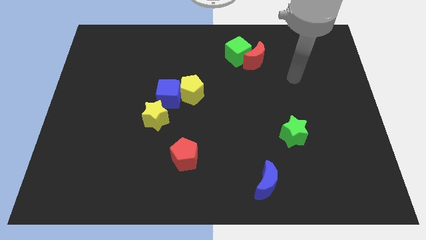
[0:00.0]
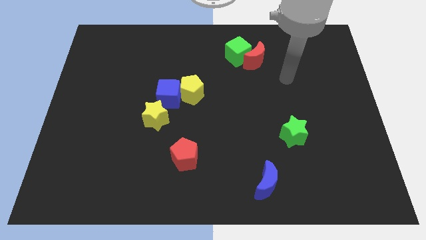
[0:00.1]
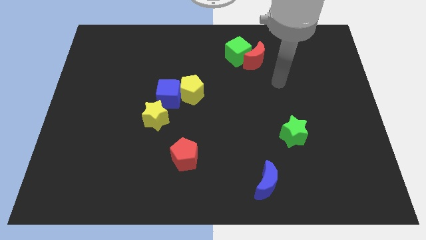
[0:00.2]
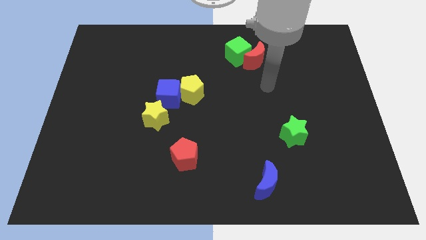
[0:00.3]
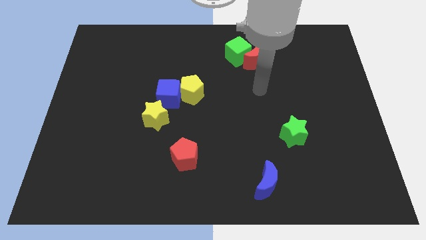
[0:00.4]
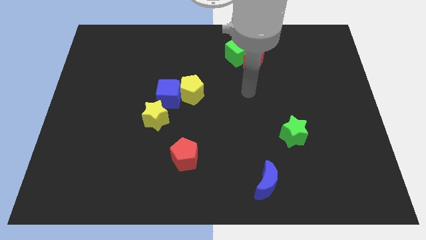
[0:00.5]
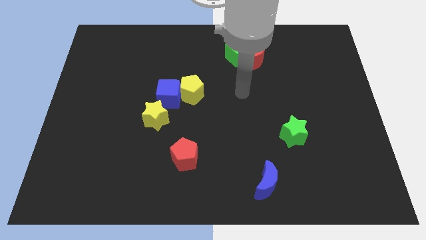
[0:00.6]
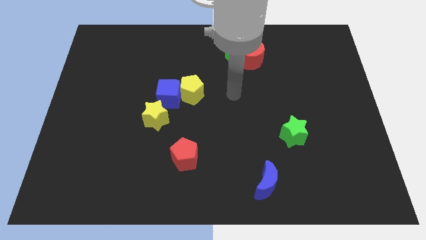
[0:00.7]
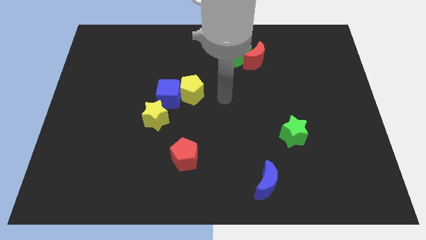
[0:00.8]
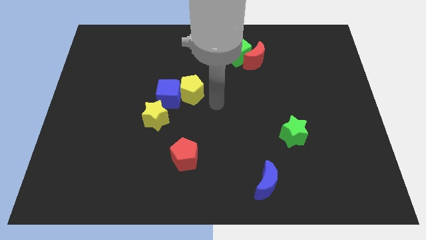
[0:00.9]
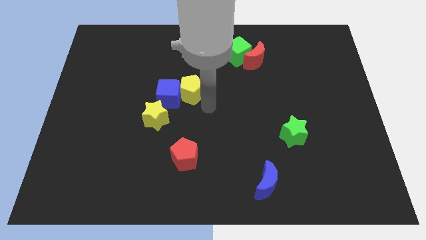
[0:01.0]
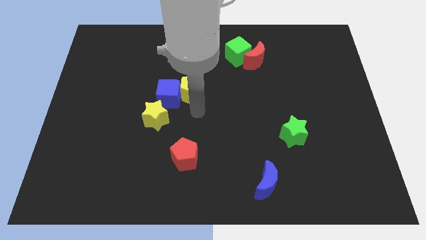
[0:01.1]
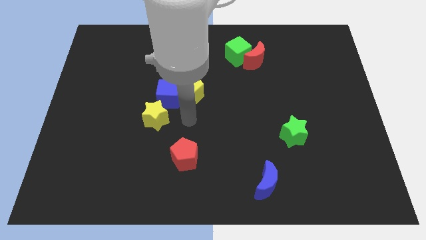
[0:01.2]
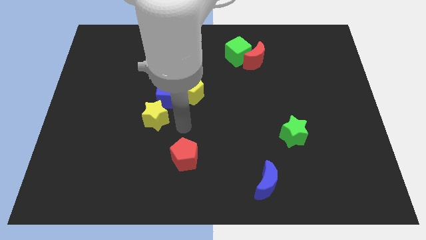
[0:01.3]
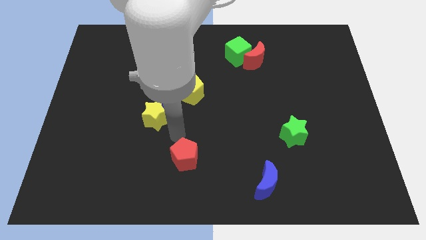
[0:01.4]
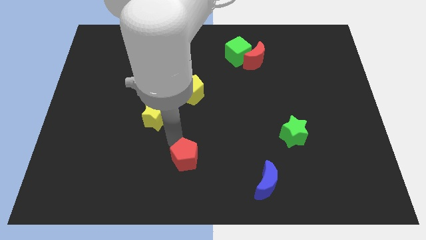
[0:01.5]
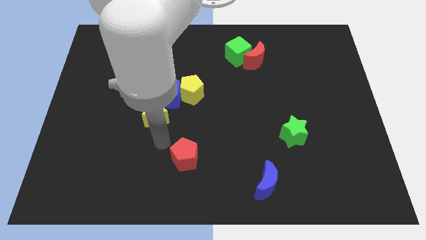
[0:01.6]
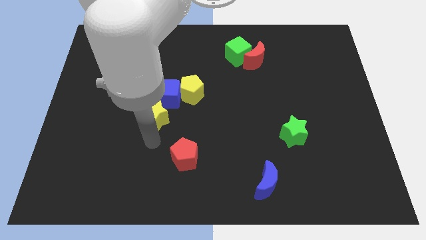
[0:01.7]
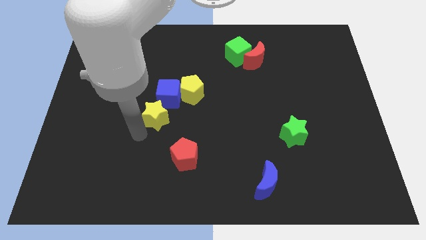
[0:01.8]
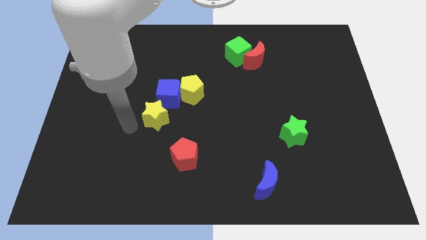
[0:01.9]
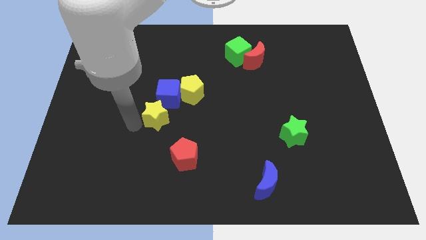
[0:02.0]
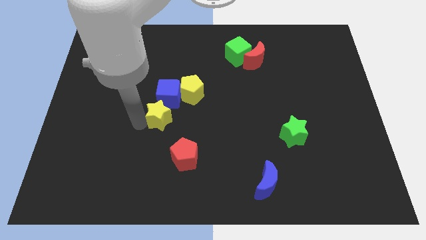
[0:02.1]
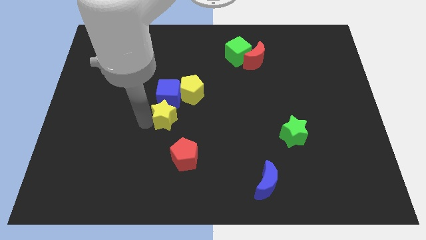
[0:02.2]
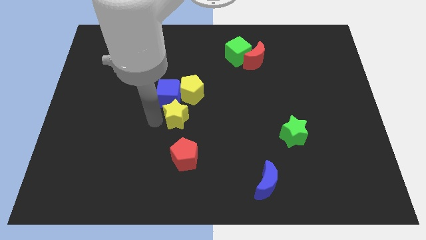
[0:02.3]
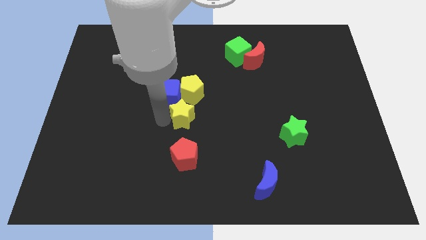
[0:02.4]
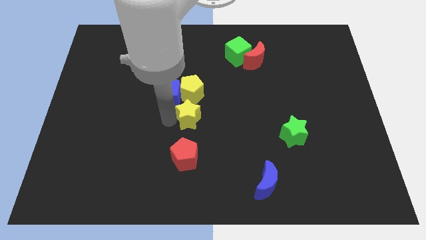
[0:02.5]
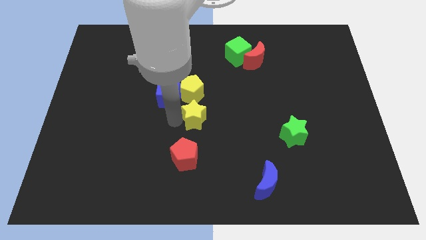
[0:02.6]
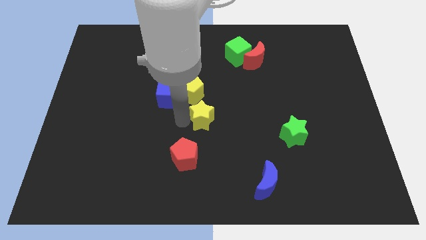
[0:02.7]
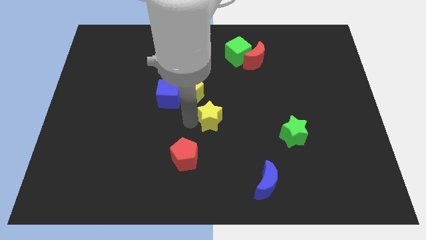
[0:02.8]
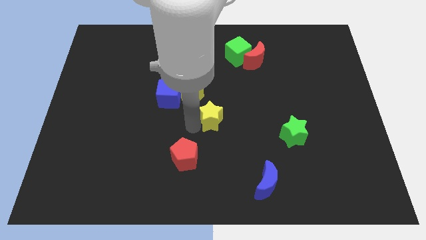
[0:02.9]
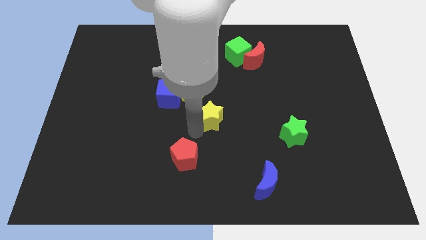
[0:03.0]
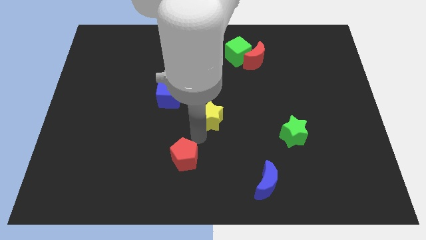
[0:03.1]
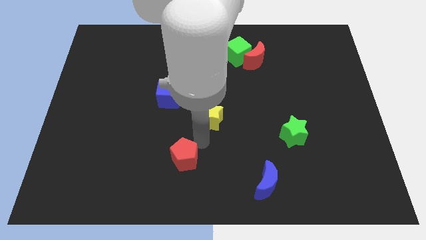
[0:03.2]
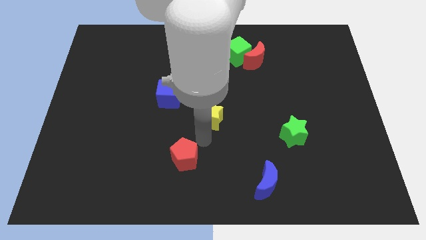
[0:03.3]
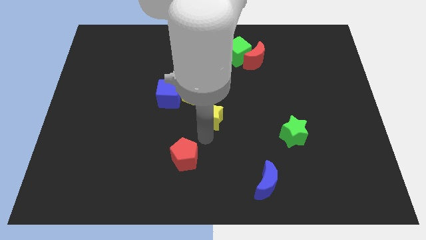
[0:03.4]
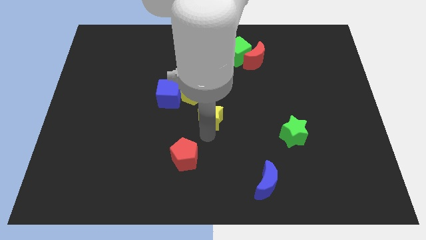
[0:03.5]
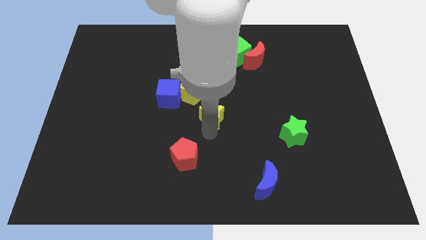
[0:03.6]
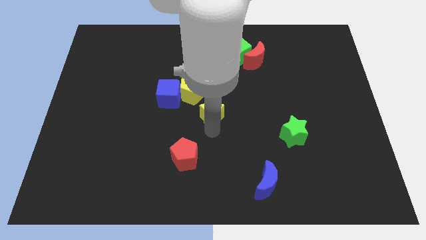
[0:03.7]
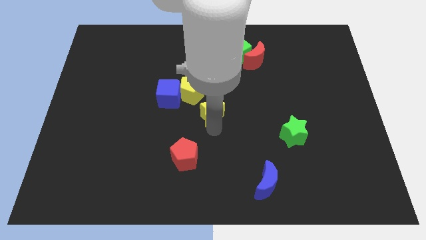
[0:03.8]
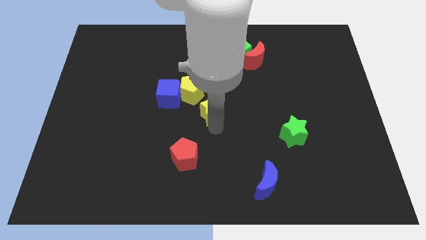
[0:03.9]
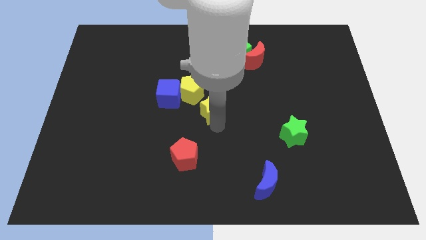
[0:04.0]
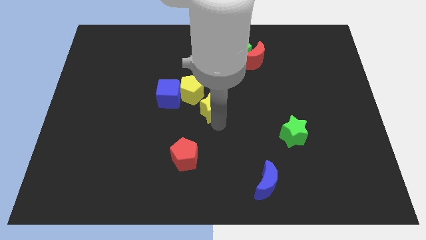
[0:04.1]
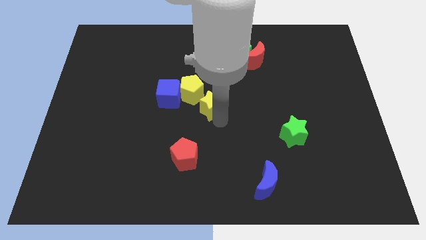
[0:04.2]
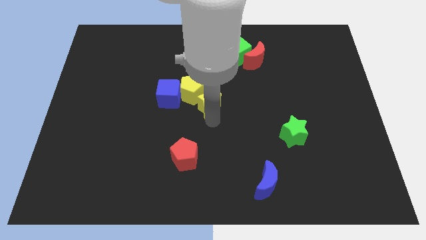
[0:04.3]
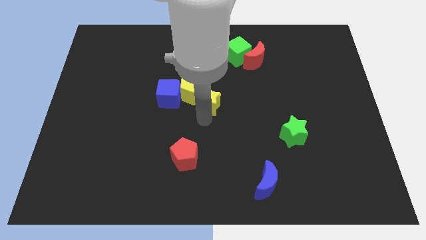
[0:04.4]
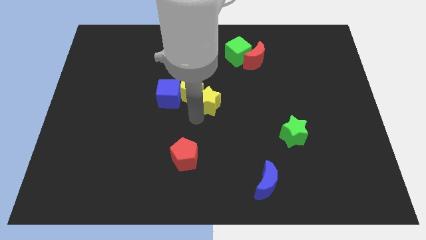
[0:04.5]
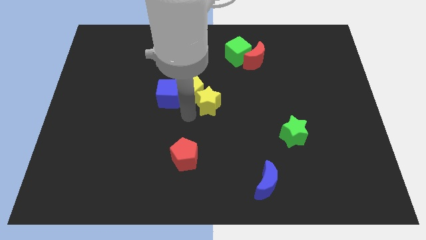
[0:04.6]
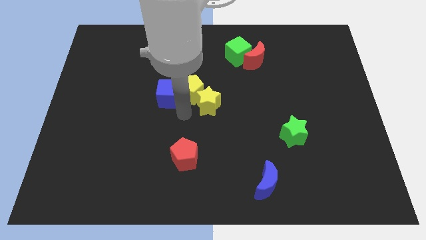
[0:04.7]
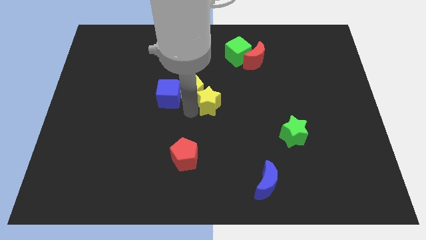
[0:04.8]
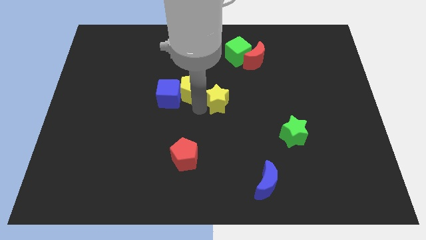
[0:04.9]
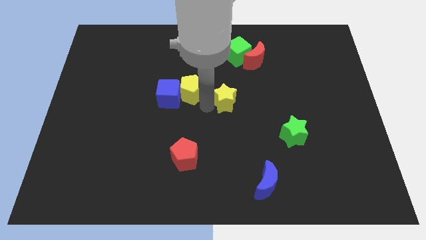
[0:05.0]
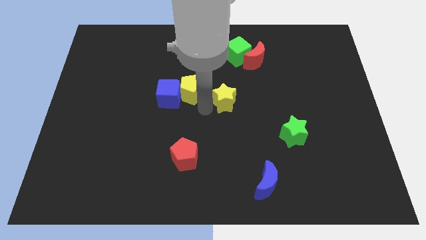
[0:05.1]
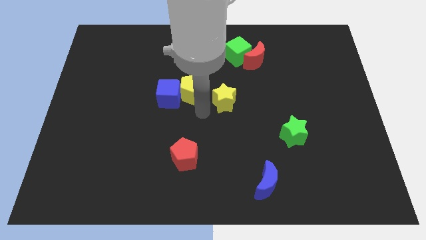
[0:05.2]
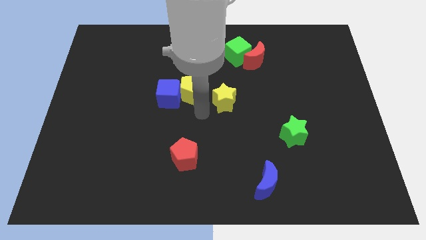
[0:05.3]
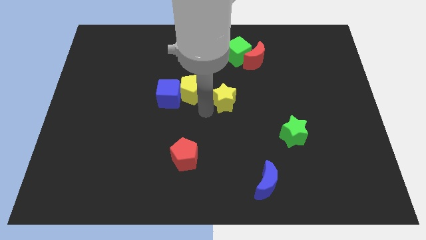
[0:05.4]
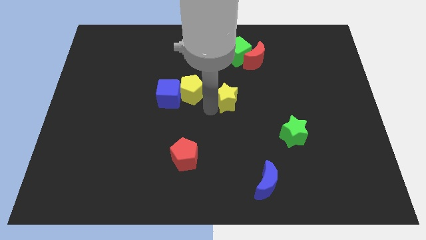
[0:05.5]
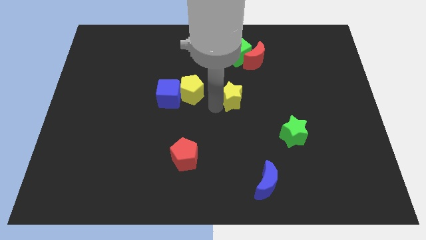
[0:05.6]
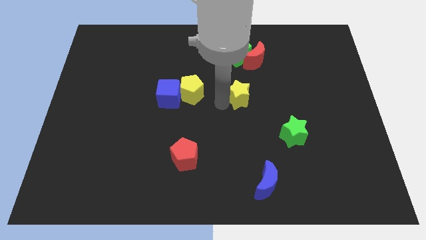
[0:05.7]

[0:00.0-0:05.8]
move the yellow star to the bottom of the red moon

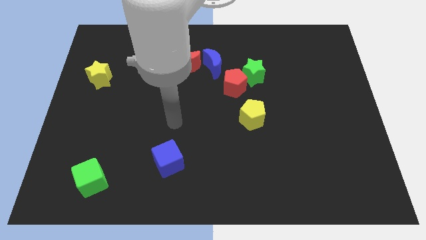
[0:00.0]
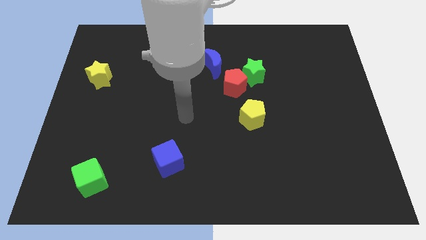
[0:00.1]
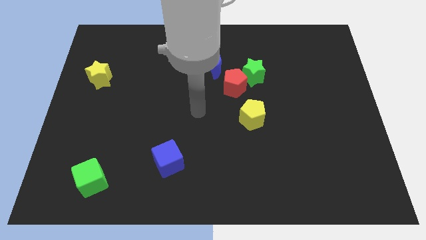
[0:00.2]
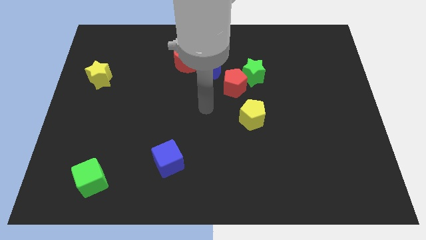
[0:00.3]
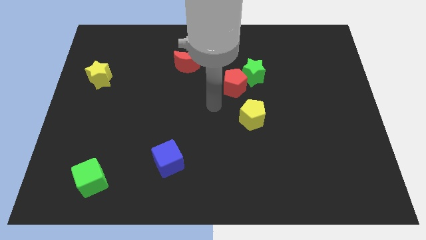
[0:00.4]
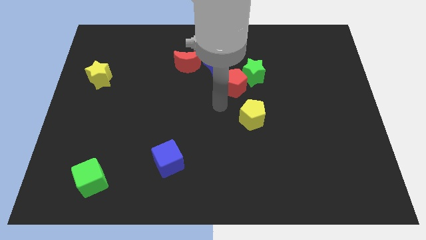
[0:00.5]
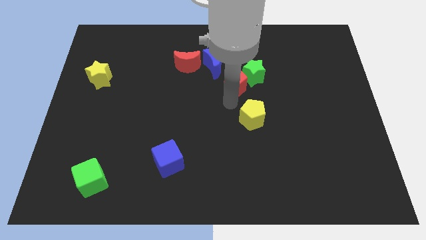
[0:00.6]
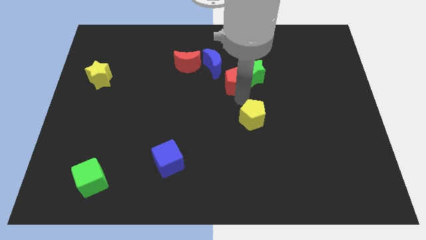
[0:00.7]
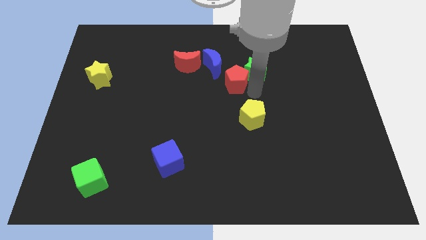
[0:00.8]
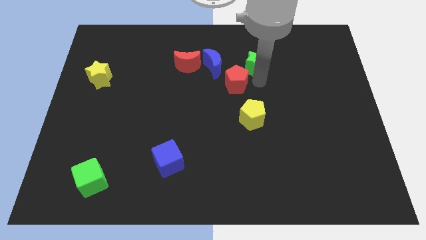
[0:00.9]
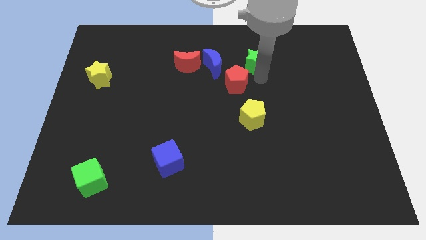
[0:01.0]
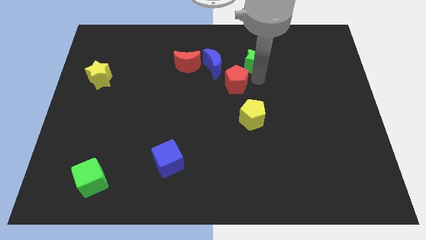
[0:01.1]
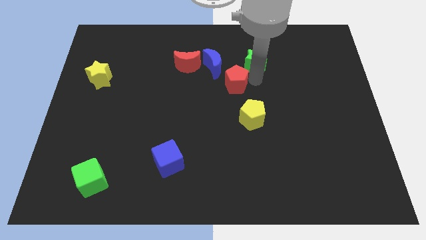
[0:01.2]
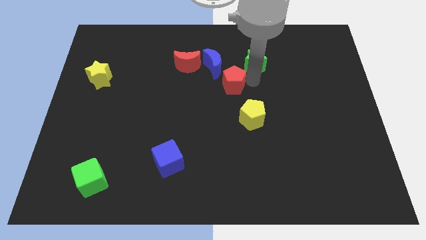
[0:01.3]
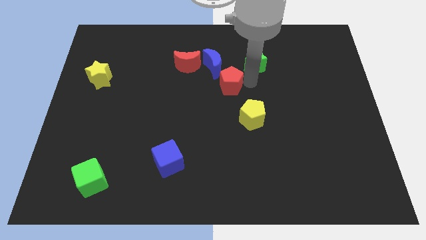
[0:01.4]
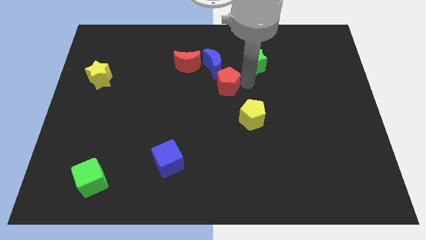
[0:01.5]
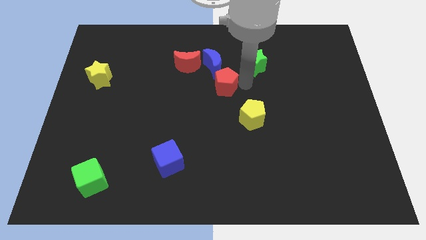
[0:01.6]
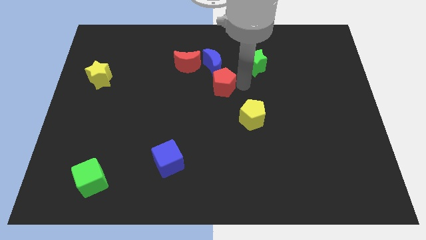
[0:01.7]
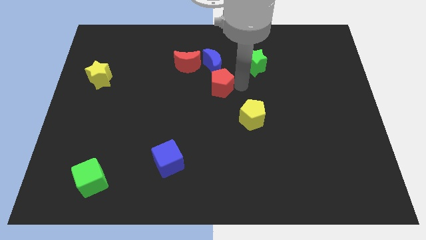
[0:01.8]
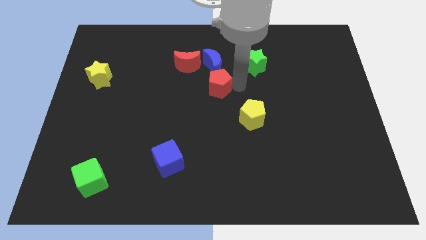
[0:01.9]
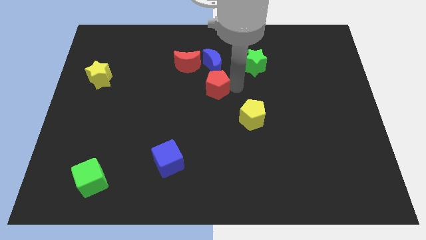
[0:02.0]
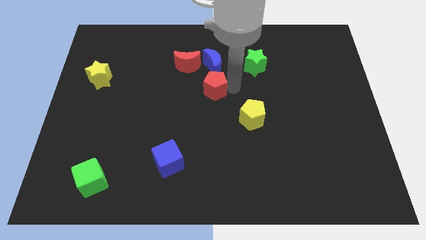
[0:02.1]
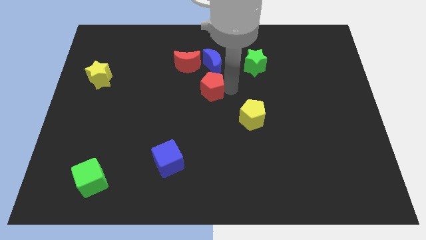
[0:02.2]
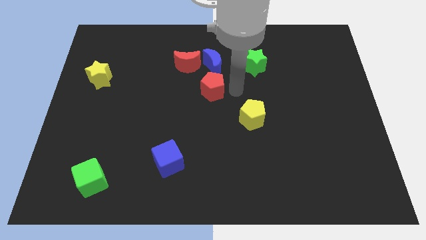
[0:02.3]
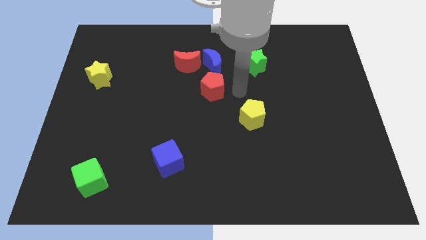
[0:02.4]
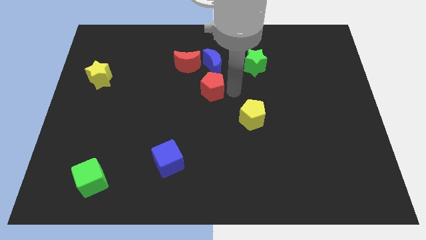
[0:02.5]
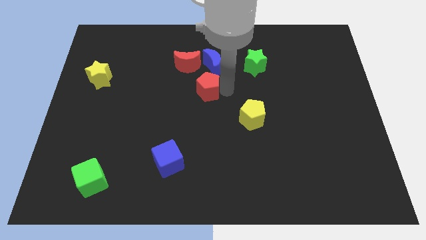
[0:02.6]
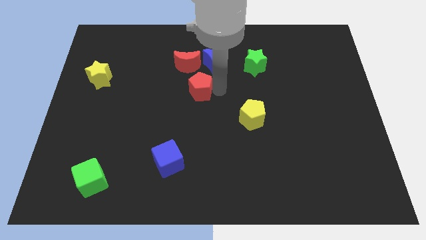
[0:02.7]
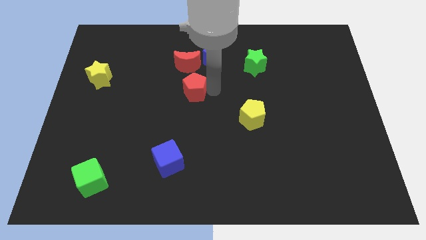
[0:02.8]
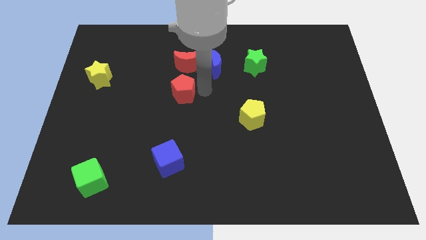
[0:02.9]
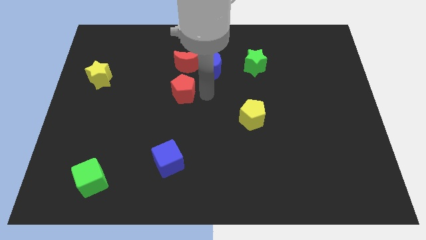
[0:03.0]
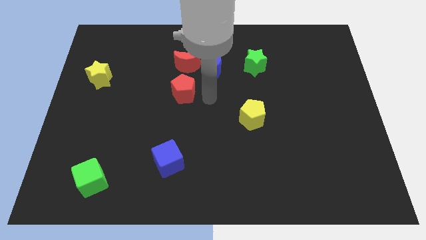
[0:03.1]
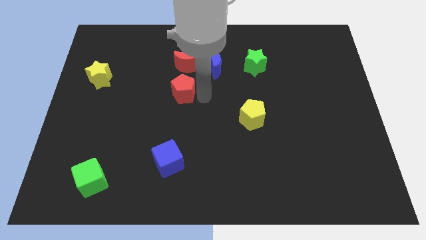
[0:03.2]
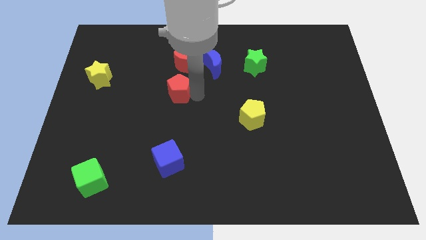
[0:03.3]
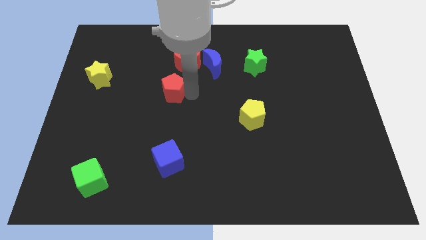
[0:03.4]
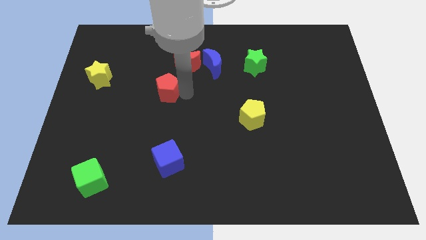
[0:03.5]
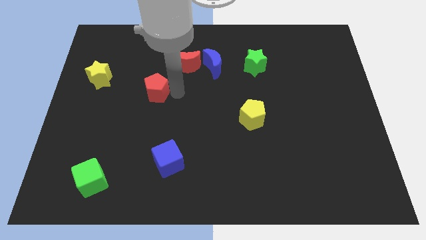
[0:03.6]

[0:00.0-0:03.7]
push the red pentagon to the right of the yellow star
